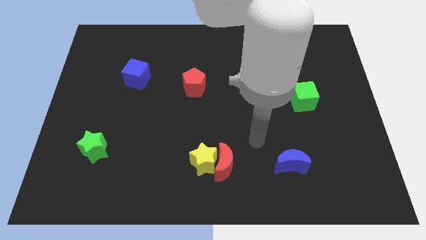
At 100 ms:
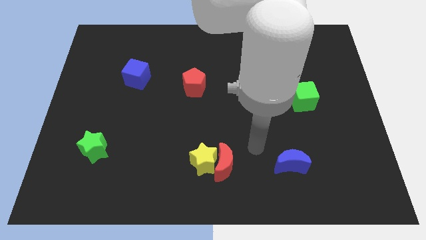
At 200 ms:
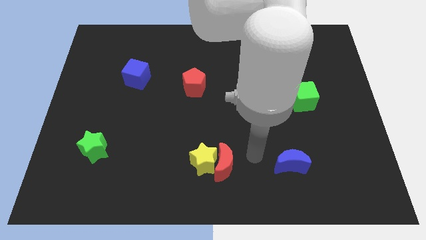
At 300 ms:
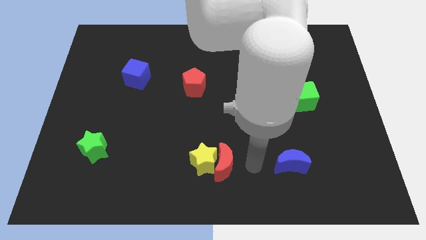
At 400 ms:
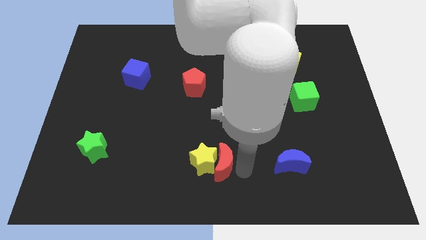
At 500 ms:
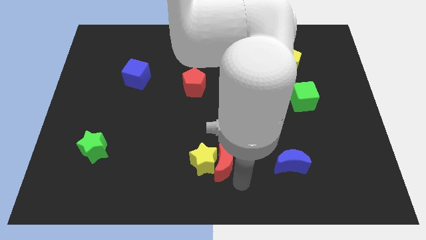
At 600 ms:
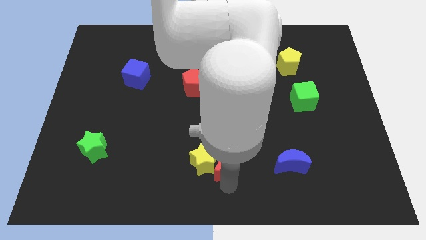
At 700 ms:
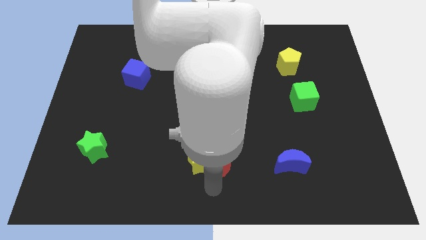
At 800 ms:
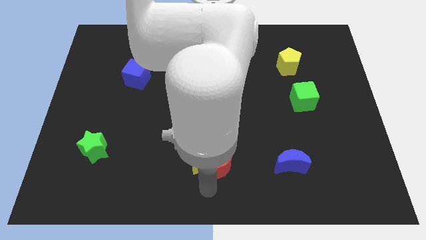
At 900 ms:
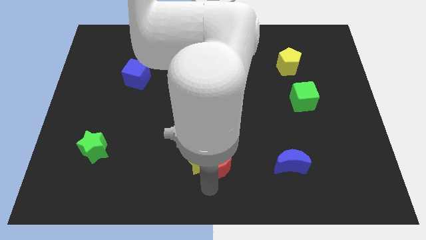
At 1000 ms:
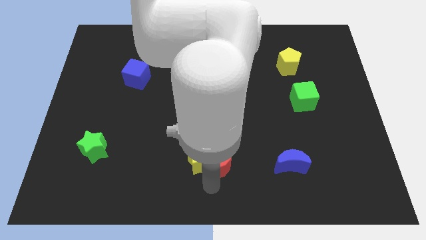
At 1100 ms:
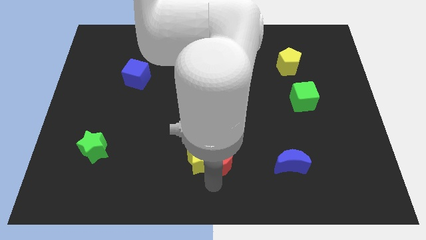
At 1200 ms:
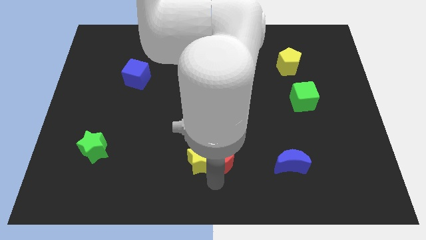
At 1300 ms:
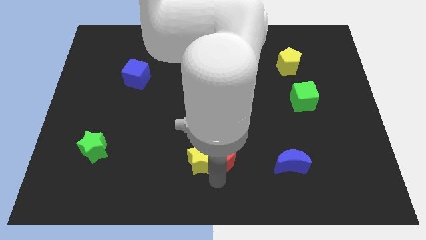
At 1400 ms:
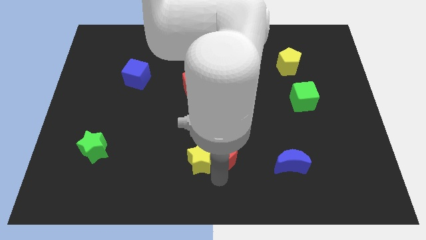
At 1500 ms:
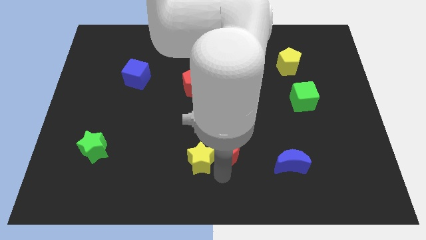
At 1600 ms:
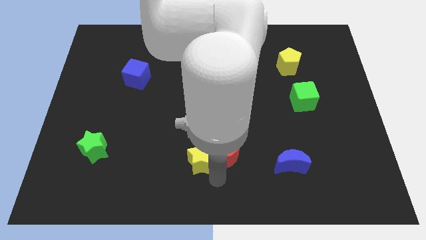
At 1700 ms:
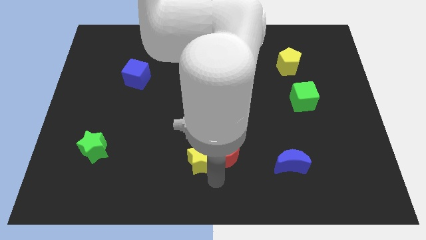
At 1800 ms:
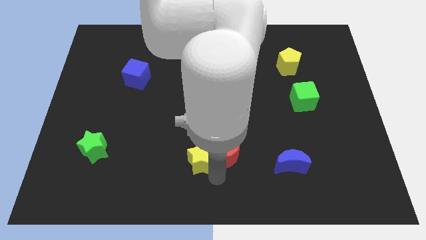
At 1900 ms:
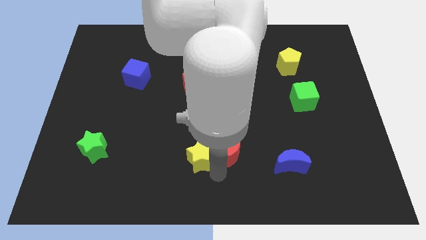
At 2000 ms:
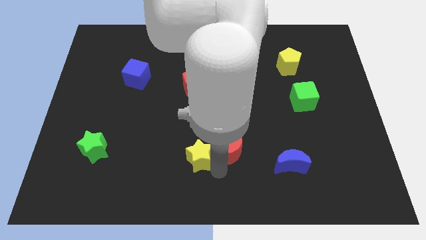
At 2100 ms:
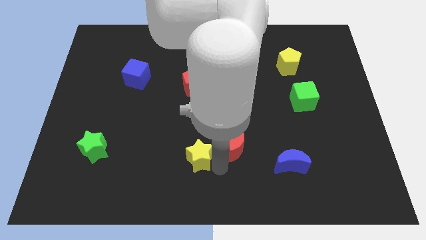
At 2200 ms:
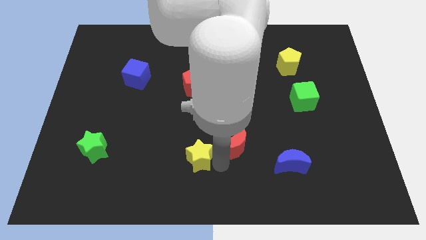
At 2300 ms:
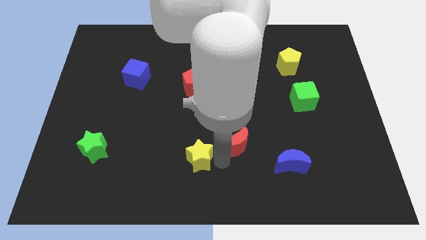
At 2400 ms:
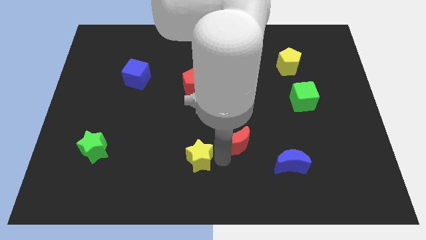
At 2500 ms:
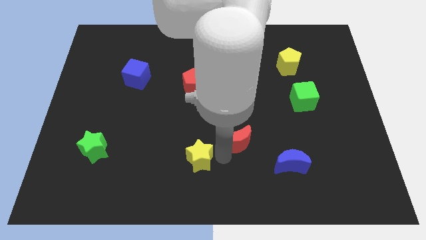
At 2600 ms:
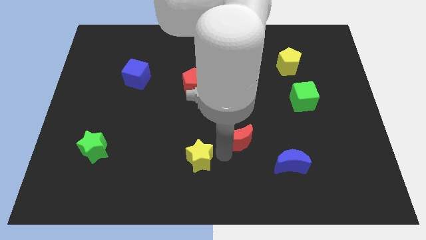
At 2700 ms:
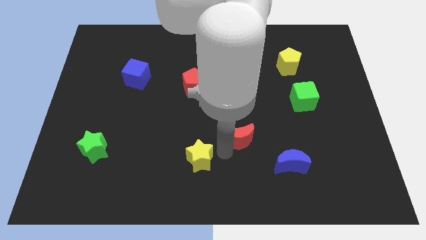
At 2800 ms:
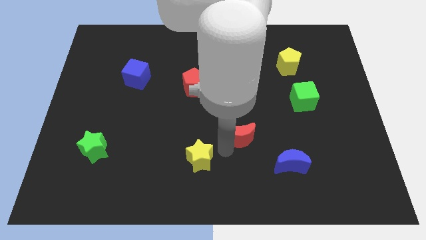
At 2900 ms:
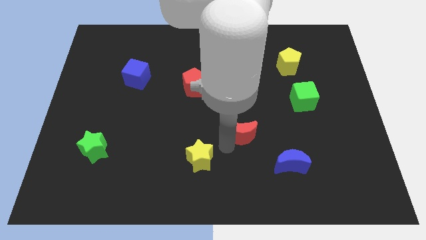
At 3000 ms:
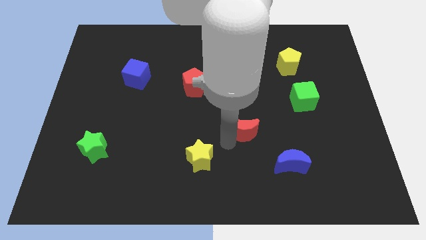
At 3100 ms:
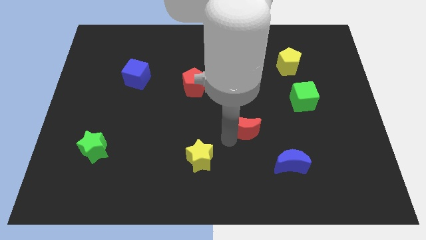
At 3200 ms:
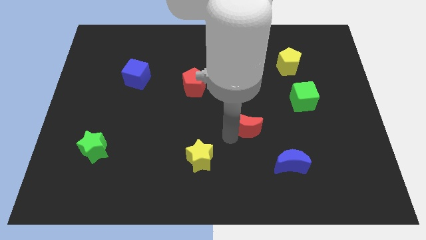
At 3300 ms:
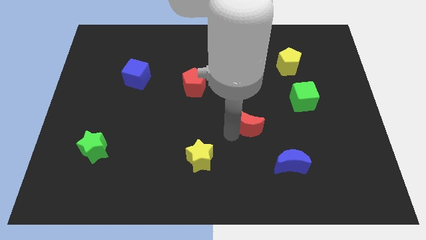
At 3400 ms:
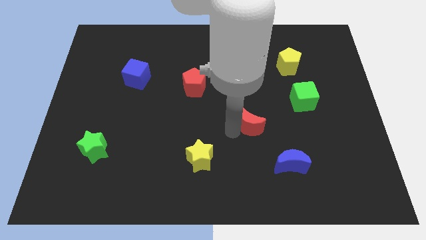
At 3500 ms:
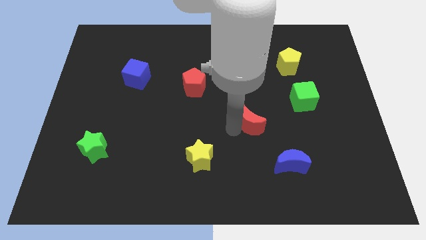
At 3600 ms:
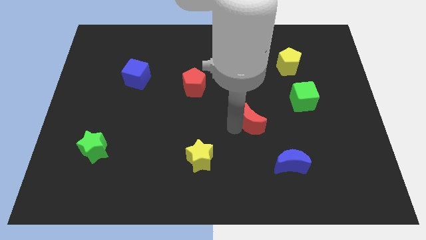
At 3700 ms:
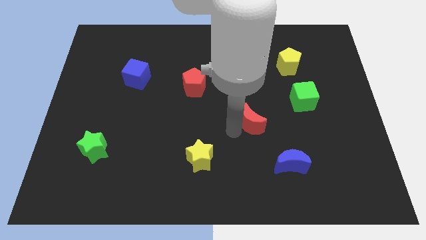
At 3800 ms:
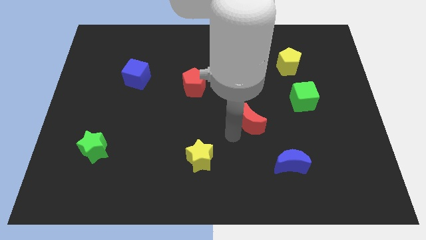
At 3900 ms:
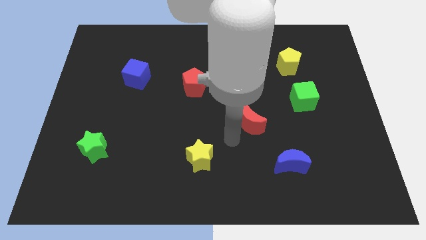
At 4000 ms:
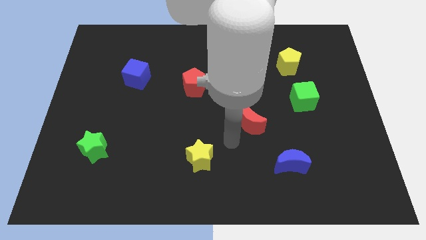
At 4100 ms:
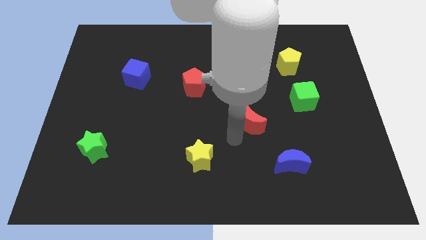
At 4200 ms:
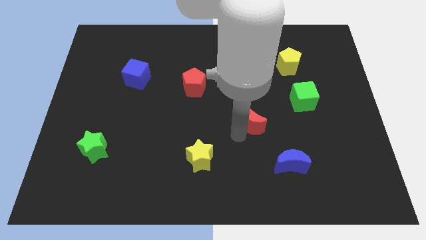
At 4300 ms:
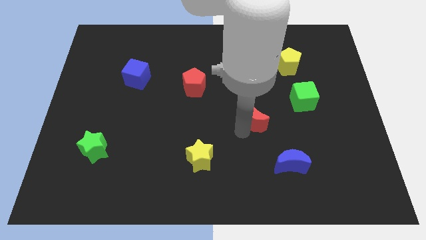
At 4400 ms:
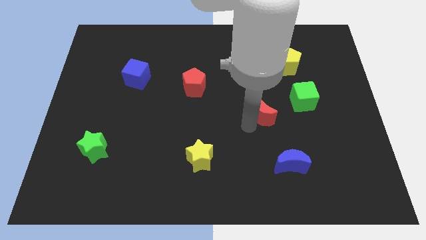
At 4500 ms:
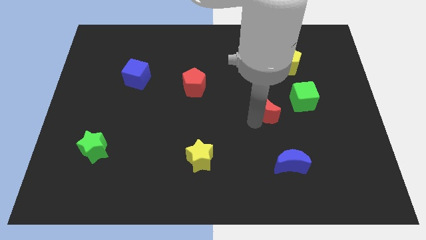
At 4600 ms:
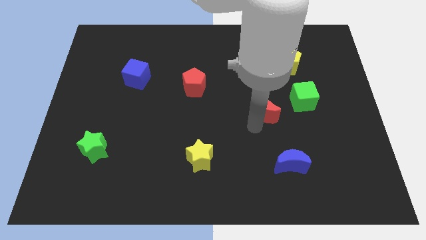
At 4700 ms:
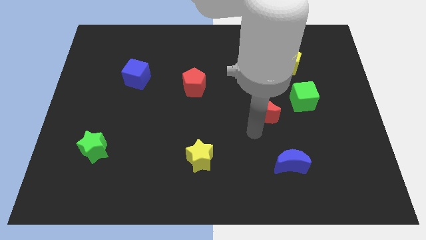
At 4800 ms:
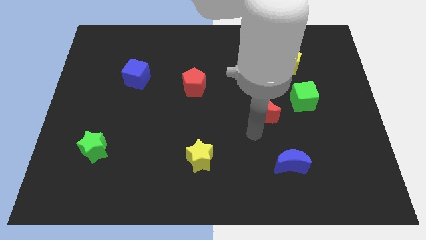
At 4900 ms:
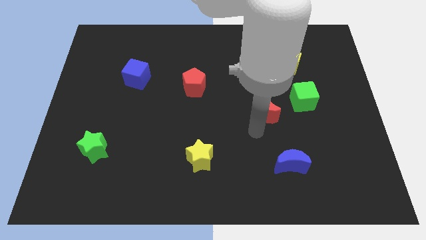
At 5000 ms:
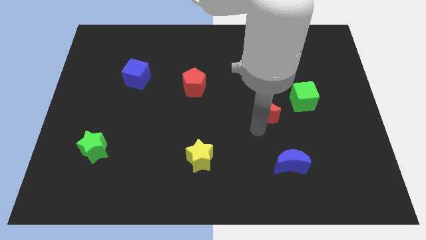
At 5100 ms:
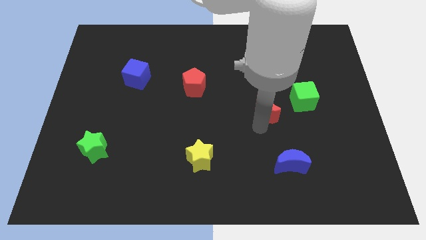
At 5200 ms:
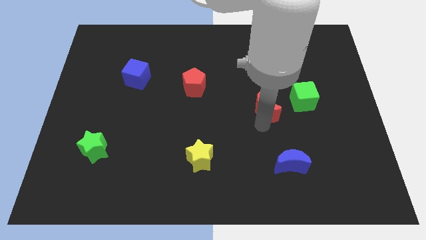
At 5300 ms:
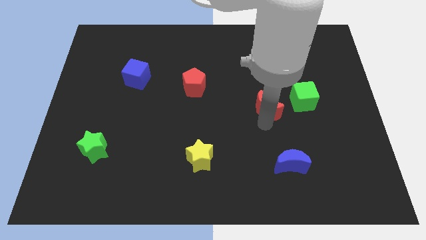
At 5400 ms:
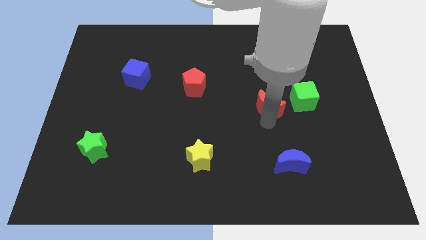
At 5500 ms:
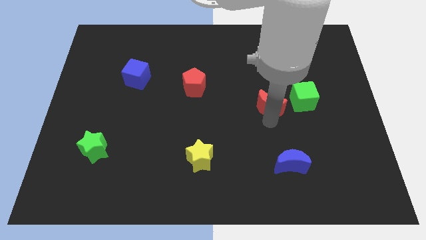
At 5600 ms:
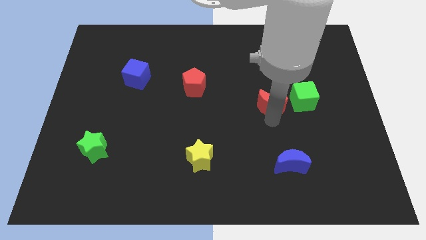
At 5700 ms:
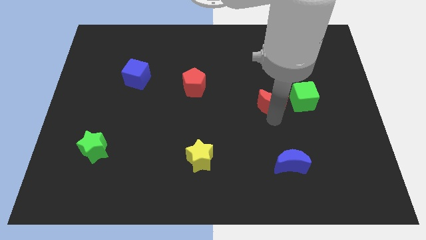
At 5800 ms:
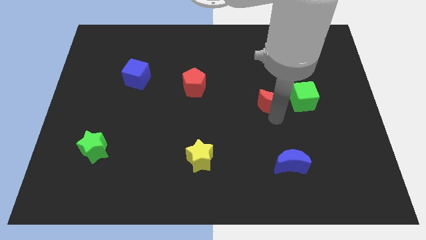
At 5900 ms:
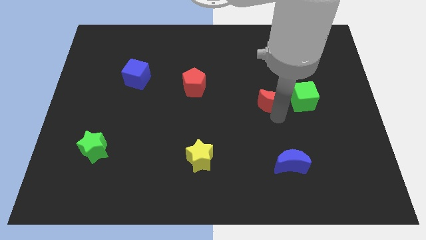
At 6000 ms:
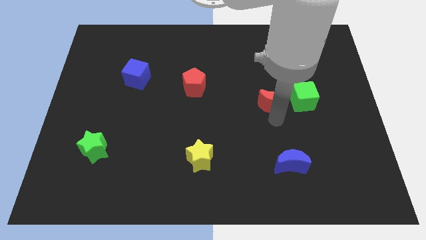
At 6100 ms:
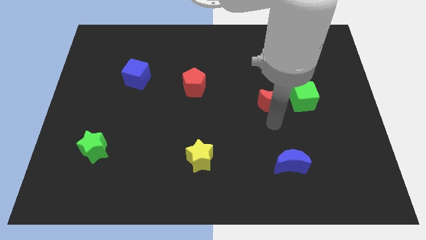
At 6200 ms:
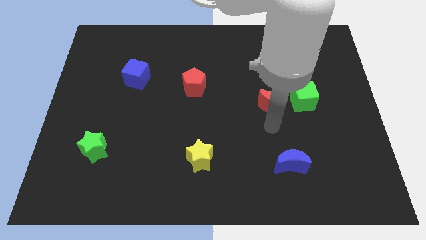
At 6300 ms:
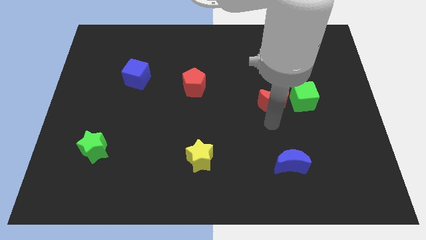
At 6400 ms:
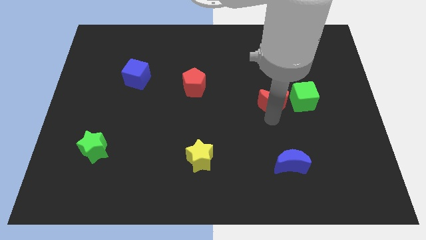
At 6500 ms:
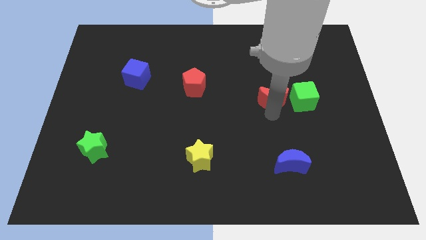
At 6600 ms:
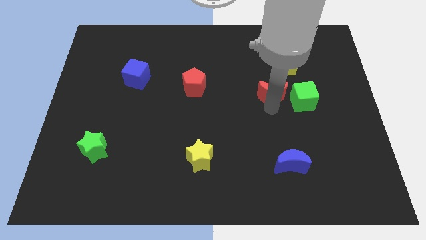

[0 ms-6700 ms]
put the red moon to the top left of the green cube
